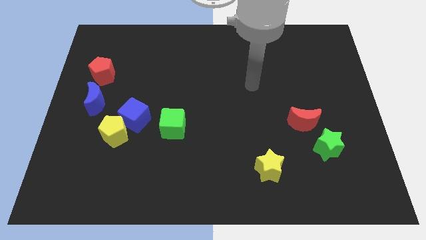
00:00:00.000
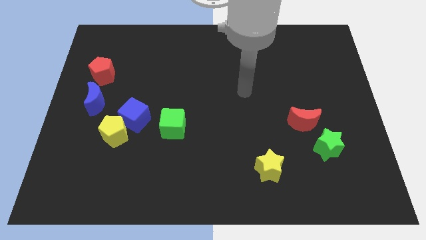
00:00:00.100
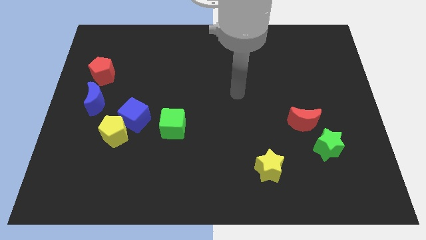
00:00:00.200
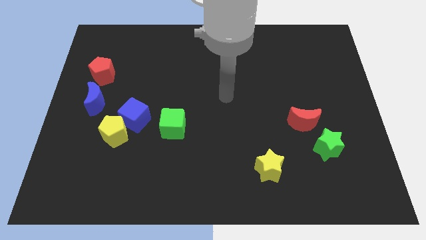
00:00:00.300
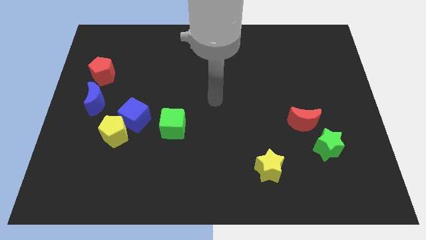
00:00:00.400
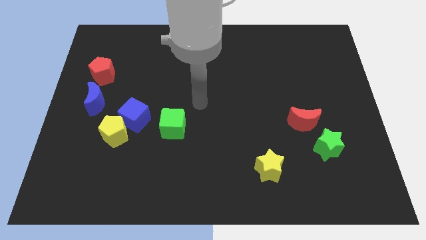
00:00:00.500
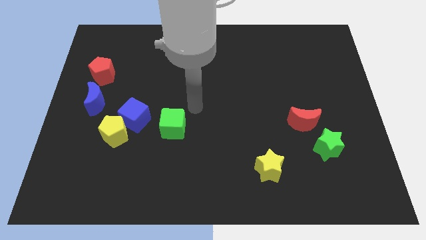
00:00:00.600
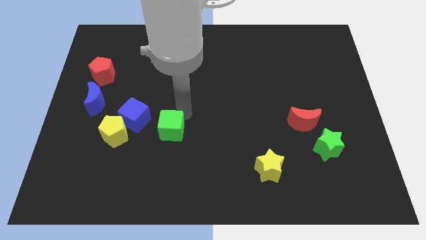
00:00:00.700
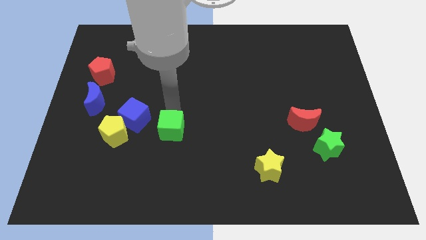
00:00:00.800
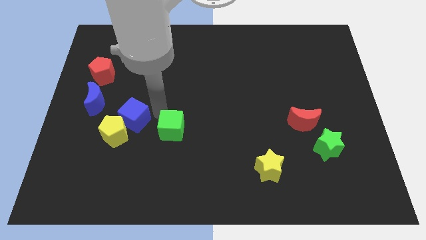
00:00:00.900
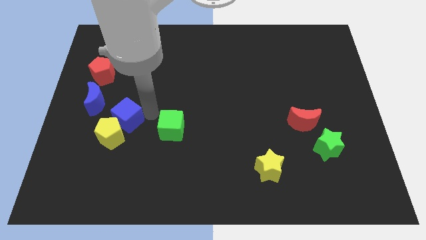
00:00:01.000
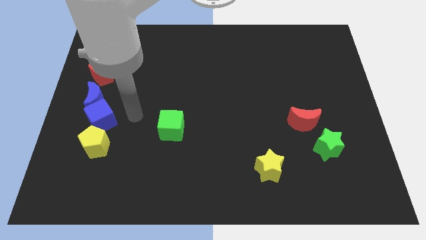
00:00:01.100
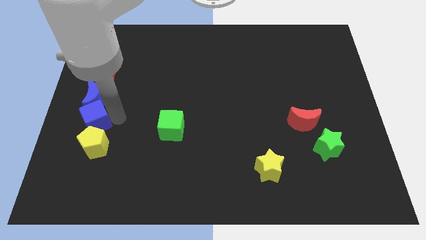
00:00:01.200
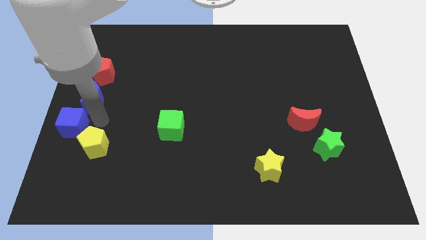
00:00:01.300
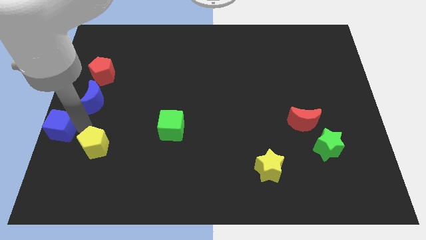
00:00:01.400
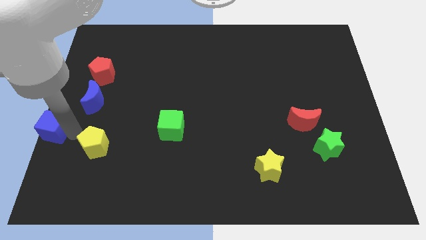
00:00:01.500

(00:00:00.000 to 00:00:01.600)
pull the yellow pentagon apart from the blue cube

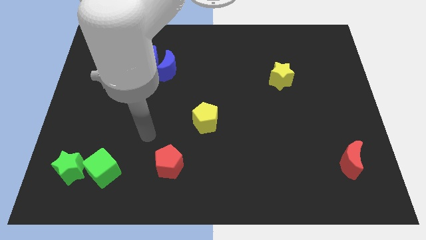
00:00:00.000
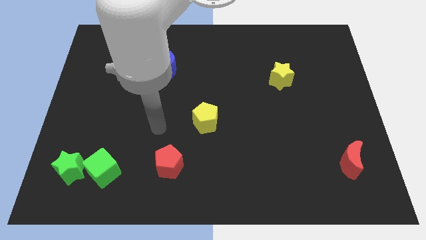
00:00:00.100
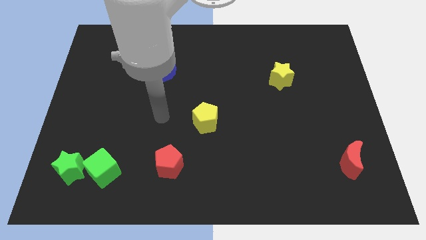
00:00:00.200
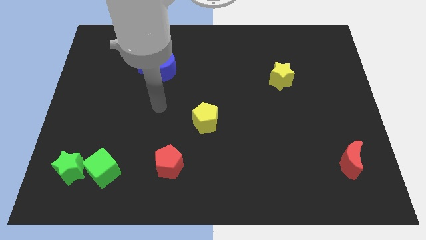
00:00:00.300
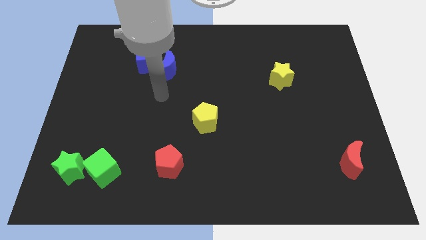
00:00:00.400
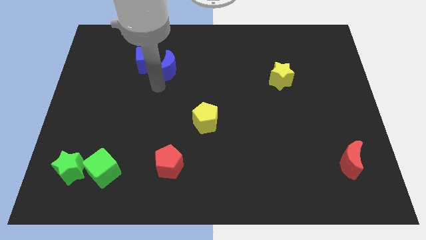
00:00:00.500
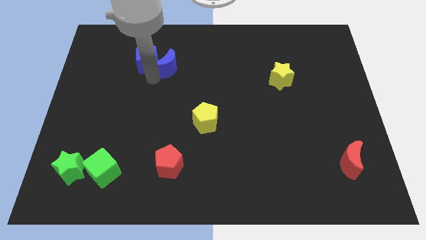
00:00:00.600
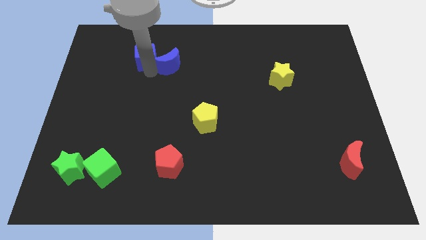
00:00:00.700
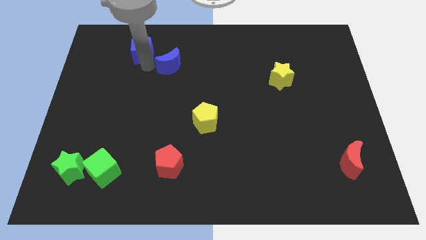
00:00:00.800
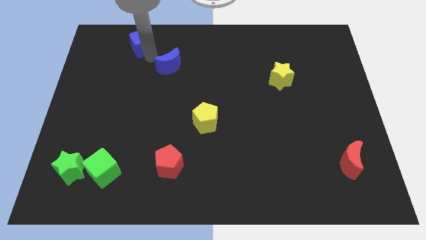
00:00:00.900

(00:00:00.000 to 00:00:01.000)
move the blue moon away from the blue cube

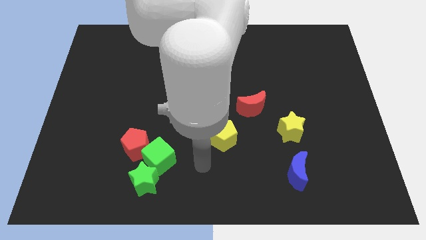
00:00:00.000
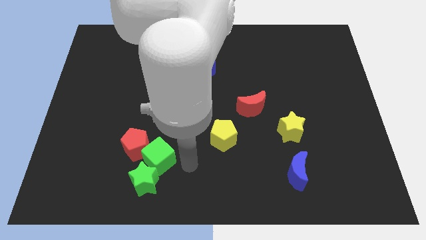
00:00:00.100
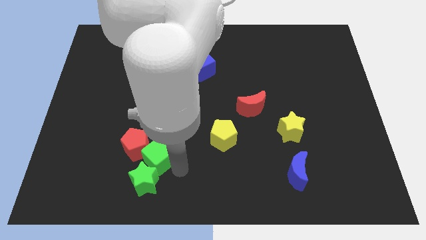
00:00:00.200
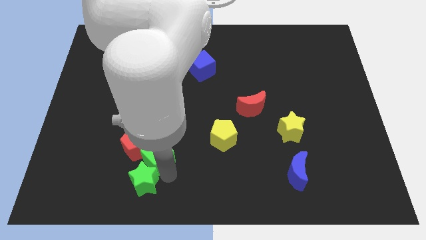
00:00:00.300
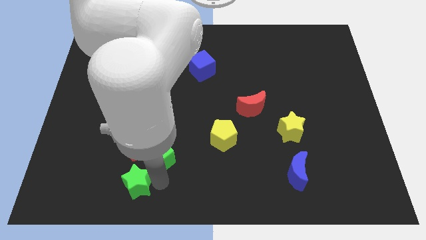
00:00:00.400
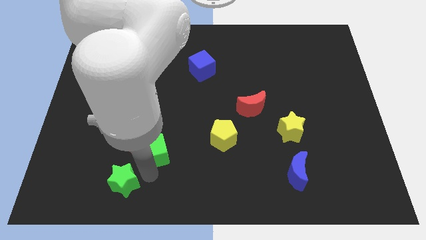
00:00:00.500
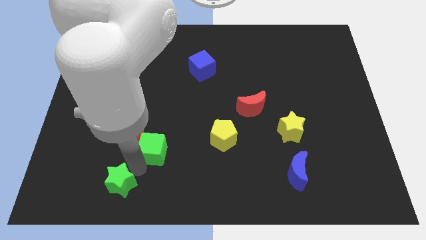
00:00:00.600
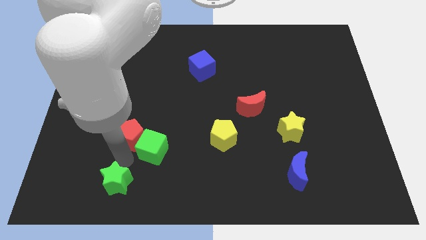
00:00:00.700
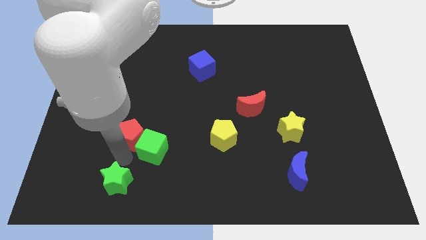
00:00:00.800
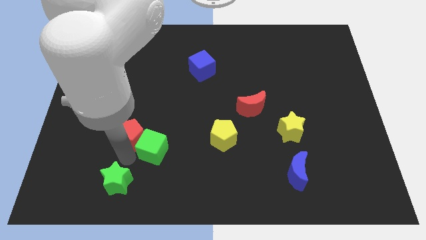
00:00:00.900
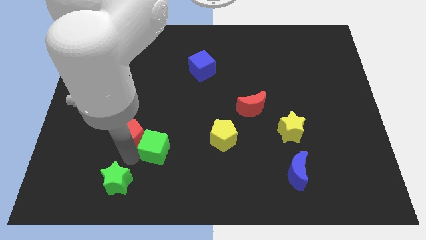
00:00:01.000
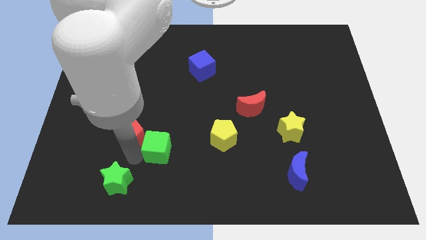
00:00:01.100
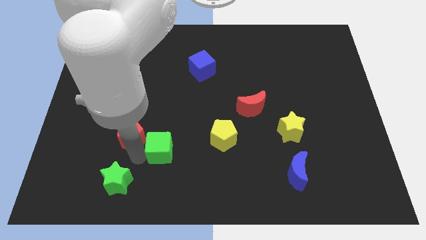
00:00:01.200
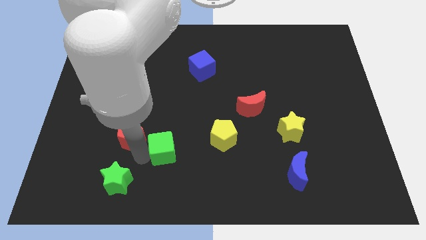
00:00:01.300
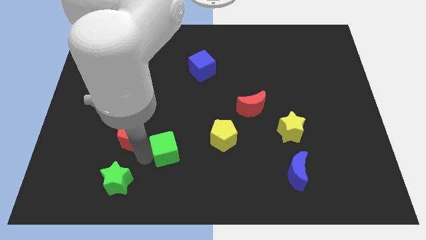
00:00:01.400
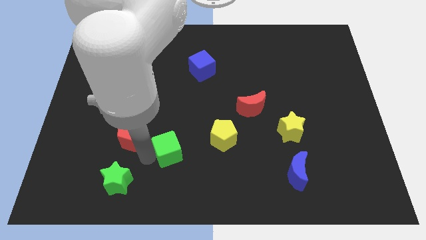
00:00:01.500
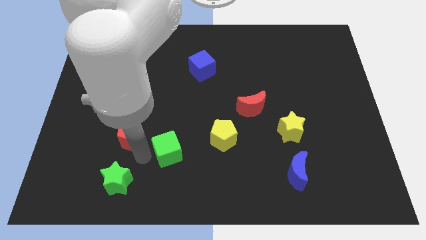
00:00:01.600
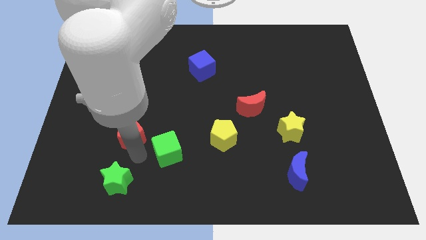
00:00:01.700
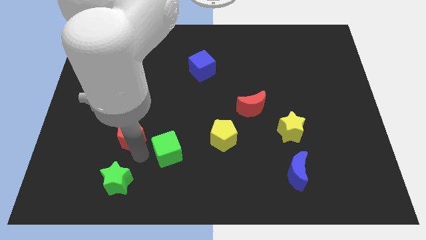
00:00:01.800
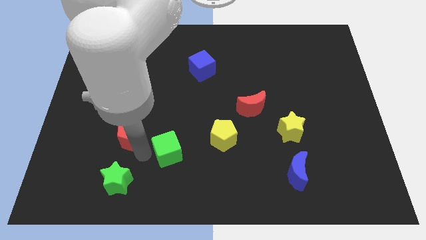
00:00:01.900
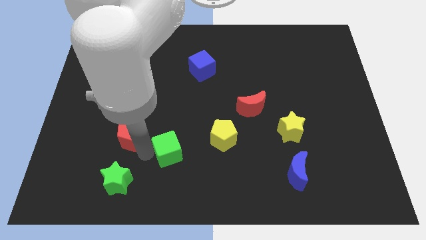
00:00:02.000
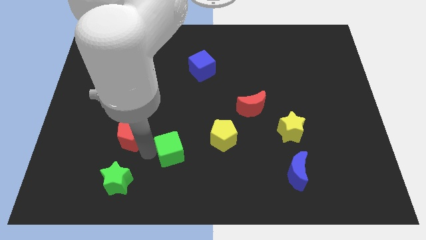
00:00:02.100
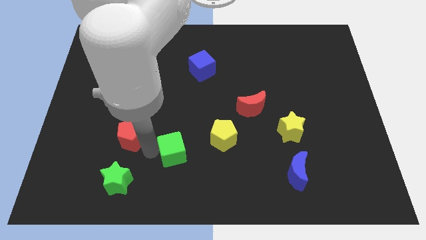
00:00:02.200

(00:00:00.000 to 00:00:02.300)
pull the green cube apart from the green star and red pentagon

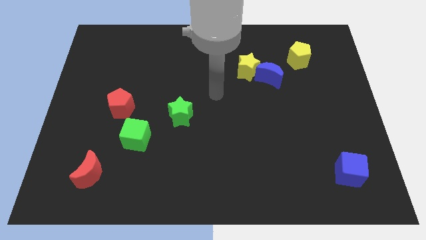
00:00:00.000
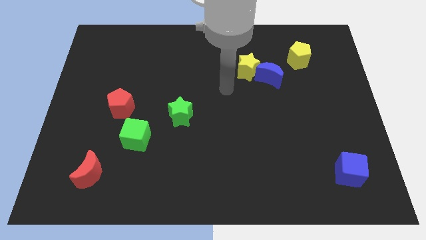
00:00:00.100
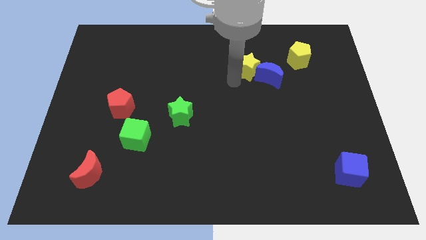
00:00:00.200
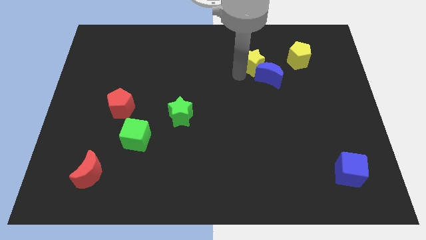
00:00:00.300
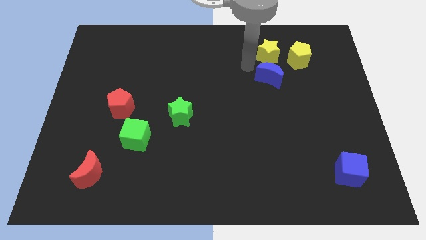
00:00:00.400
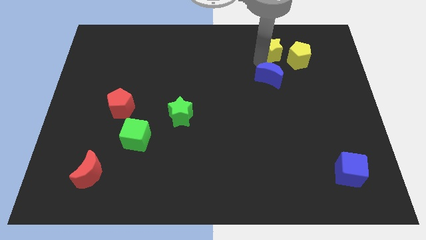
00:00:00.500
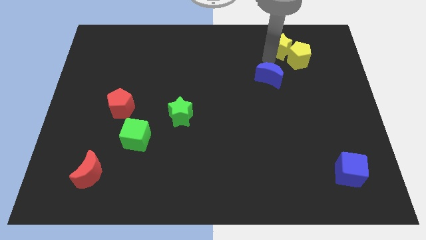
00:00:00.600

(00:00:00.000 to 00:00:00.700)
move the blue moon away from the yellow star

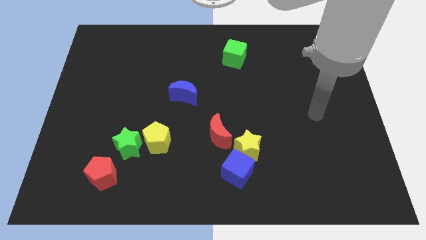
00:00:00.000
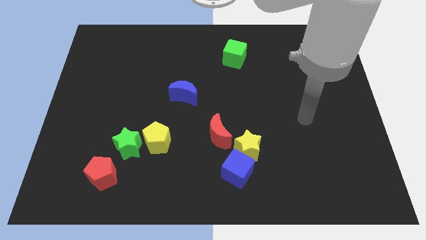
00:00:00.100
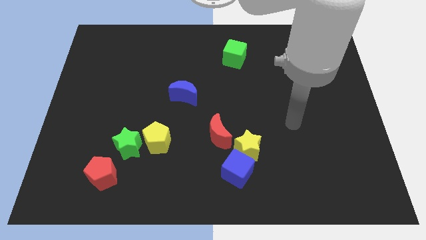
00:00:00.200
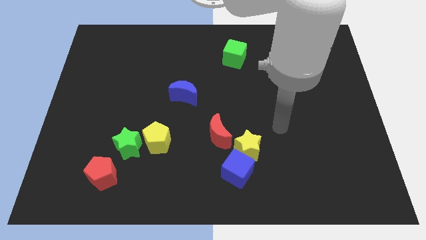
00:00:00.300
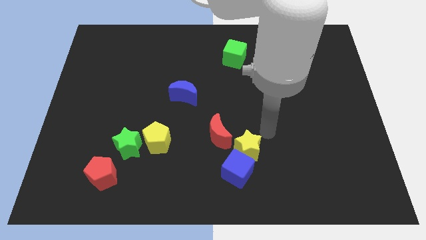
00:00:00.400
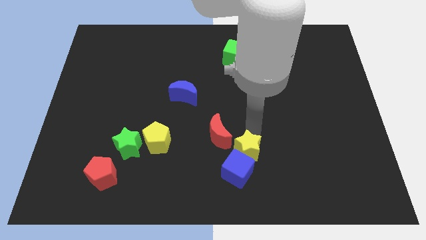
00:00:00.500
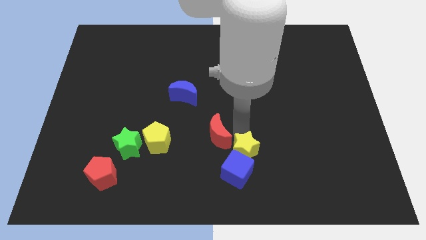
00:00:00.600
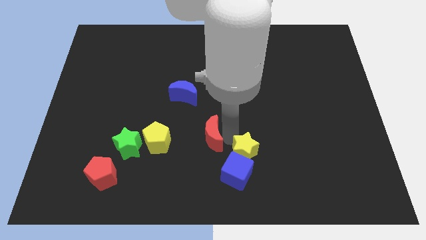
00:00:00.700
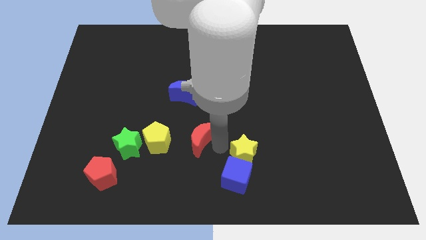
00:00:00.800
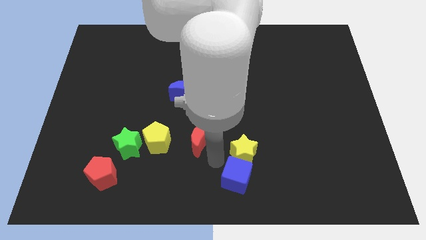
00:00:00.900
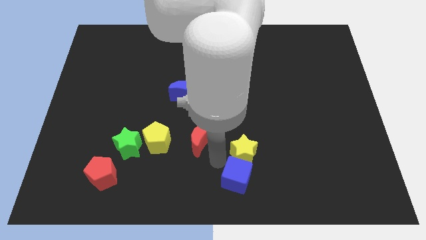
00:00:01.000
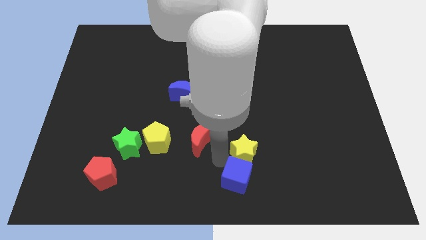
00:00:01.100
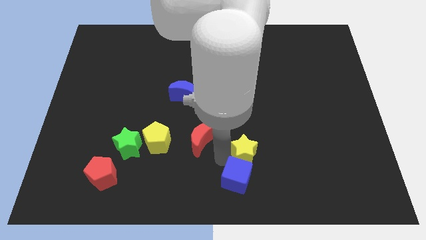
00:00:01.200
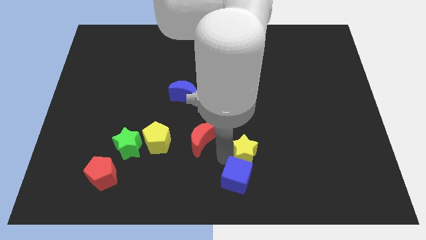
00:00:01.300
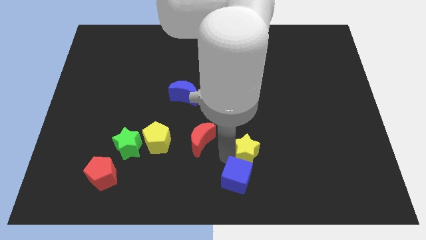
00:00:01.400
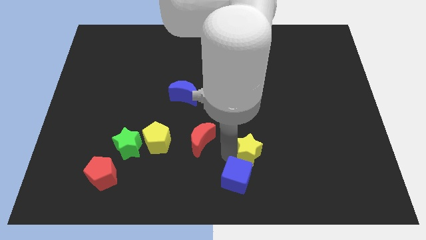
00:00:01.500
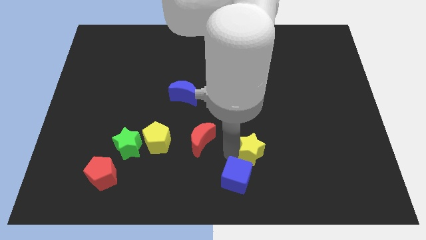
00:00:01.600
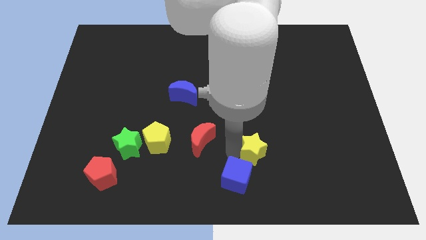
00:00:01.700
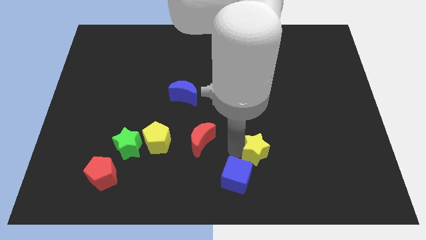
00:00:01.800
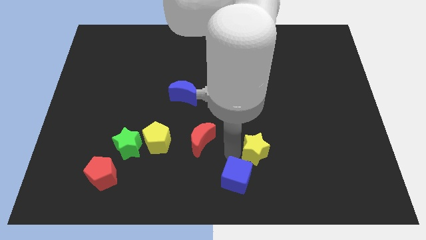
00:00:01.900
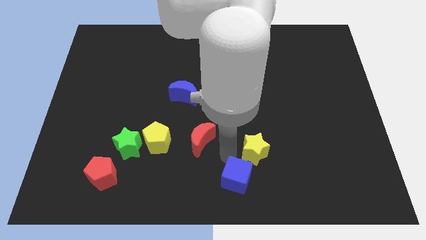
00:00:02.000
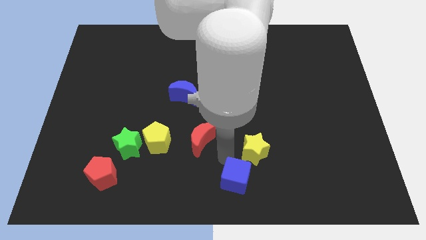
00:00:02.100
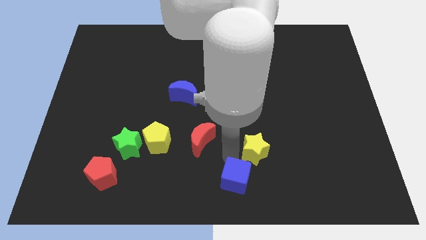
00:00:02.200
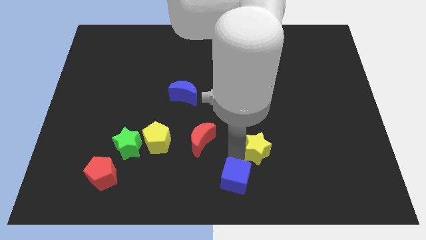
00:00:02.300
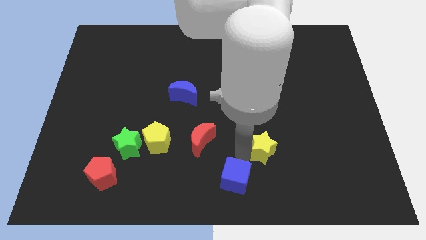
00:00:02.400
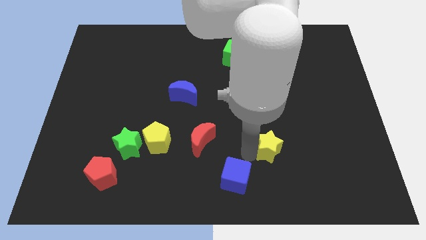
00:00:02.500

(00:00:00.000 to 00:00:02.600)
move the yellow star away from the blue cube and red moon

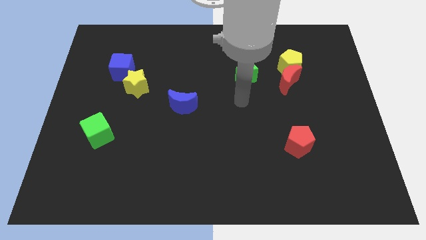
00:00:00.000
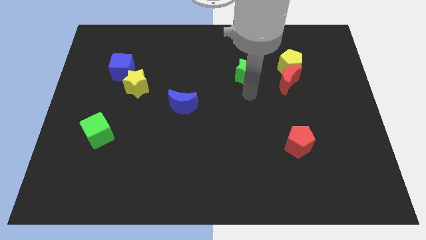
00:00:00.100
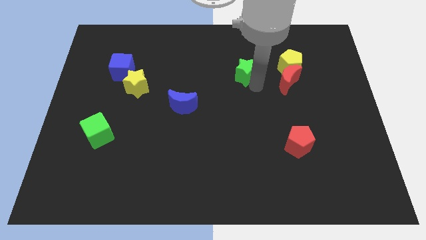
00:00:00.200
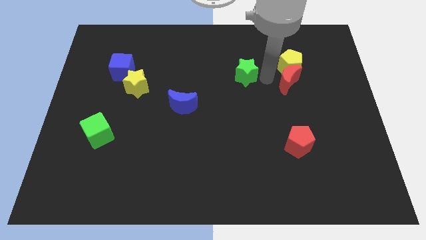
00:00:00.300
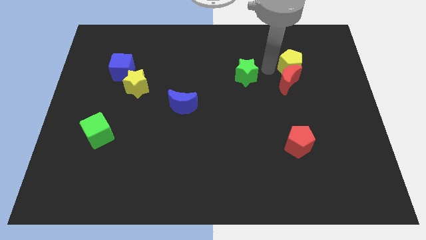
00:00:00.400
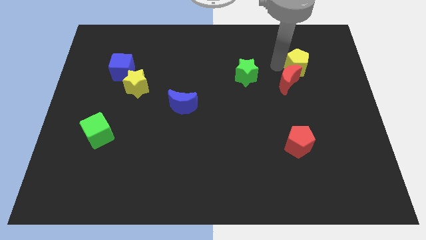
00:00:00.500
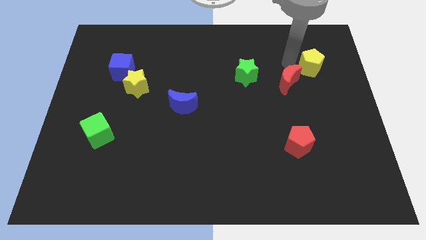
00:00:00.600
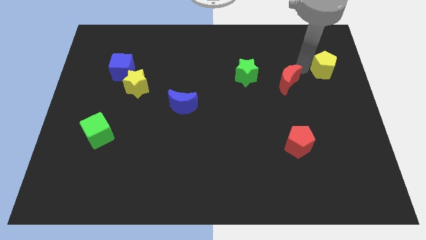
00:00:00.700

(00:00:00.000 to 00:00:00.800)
pull the red moon apart from the yellow pentagon

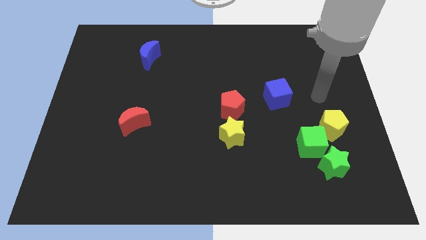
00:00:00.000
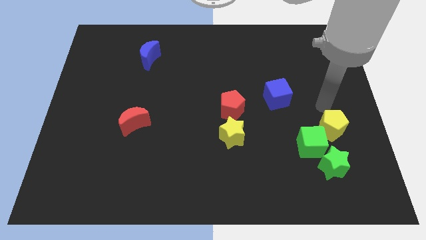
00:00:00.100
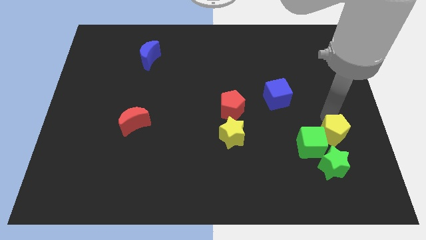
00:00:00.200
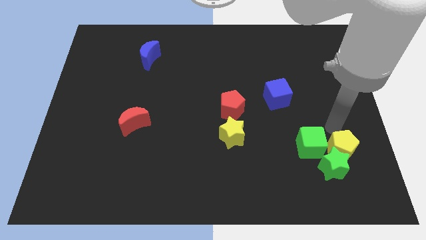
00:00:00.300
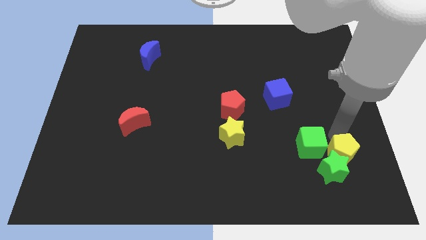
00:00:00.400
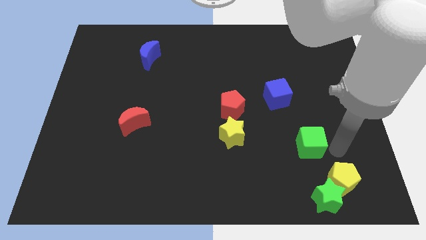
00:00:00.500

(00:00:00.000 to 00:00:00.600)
move the green cube away from the green star and yellow pentagon
